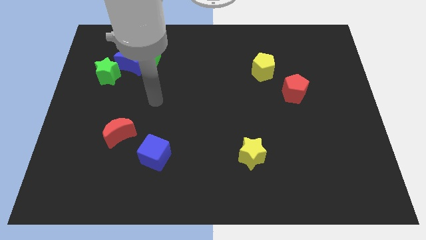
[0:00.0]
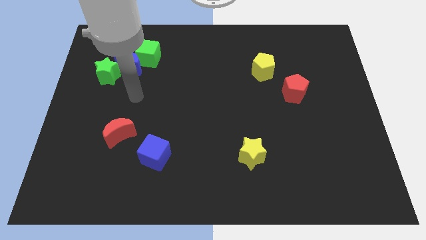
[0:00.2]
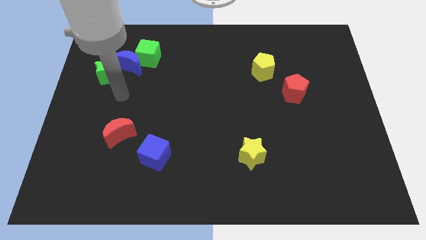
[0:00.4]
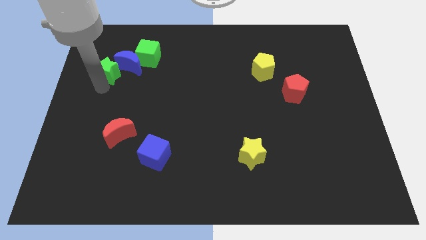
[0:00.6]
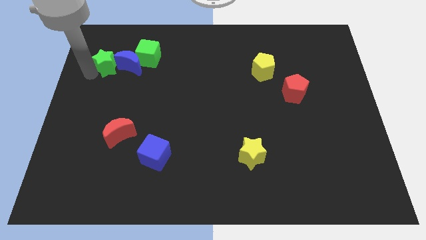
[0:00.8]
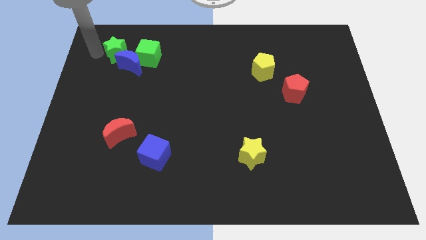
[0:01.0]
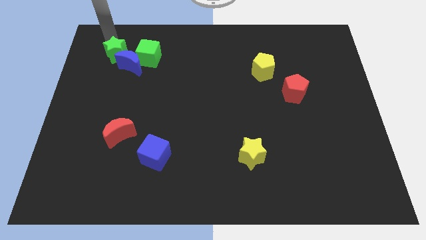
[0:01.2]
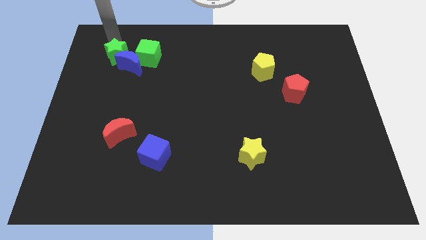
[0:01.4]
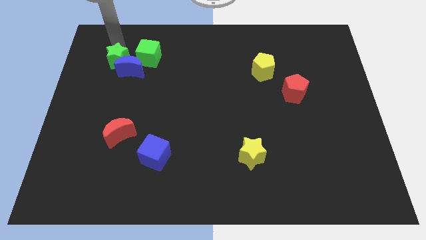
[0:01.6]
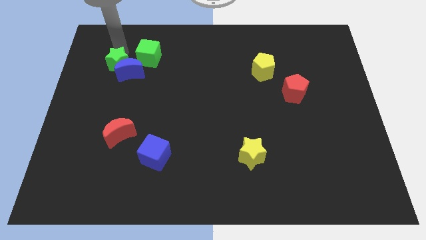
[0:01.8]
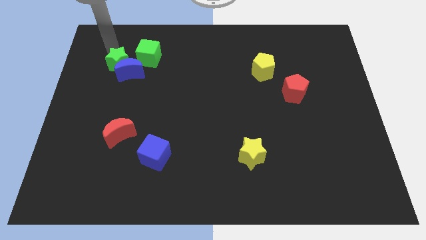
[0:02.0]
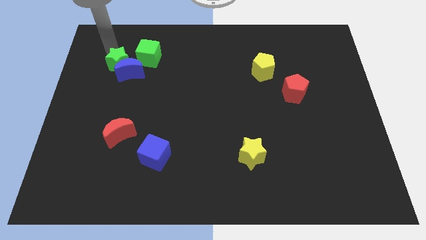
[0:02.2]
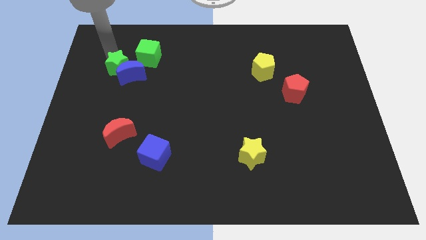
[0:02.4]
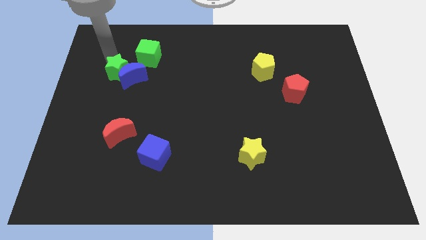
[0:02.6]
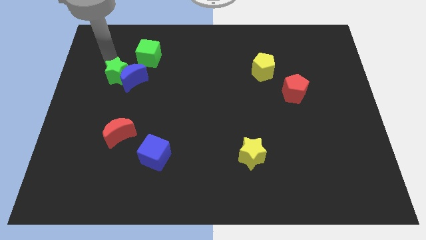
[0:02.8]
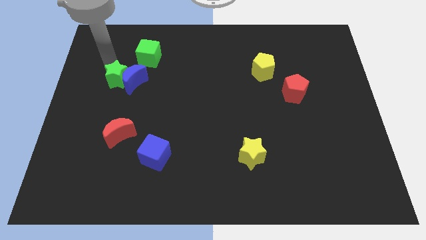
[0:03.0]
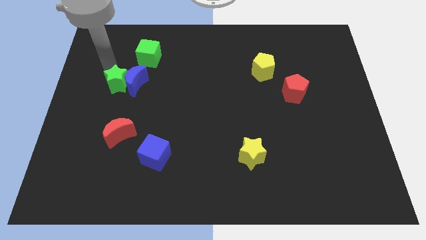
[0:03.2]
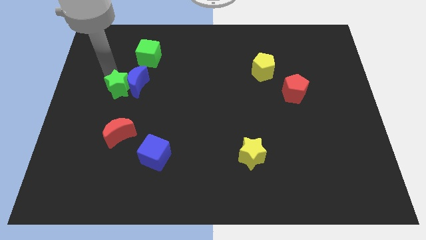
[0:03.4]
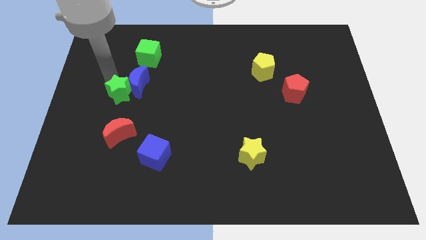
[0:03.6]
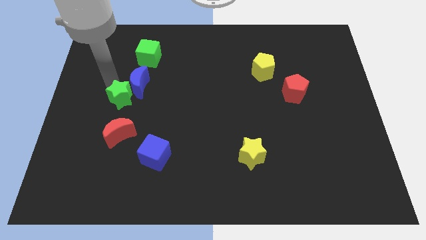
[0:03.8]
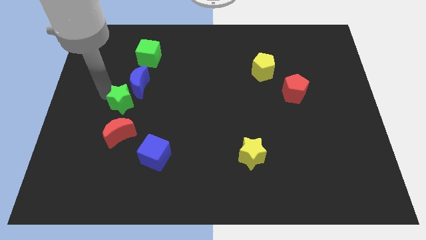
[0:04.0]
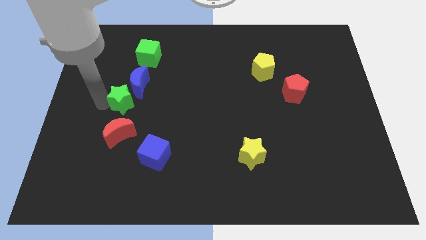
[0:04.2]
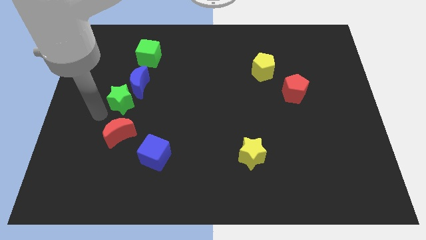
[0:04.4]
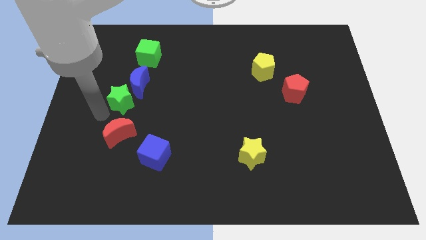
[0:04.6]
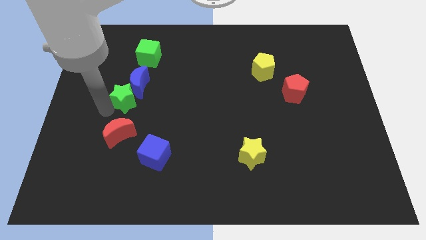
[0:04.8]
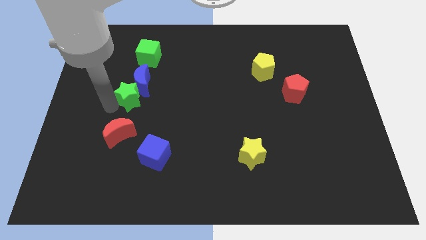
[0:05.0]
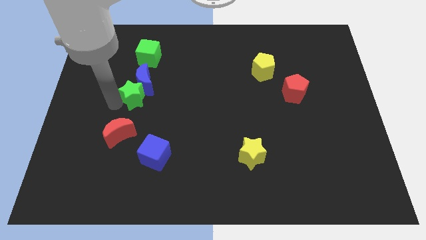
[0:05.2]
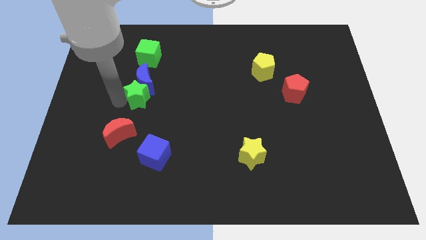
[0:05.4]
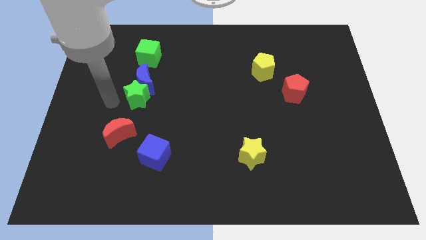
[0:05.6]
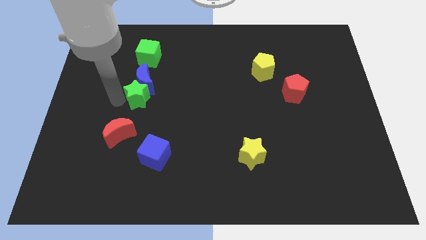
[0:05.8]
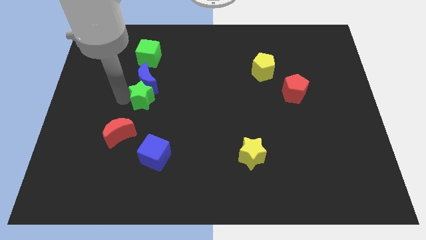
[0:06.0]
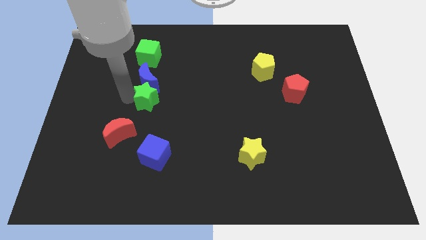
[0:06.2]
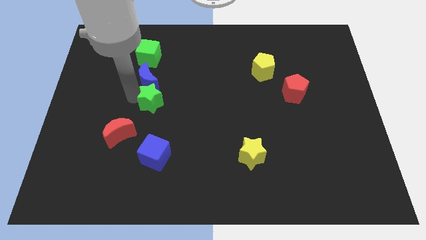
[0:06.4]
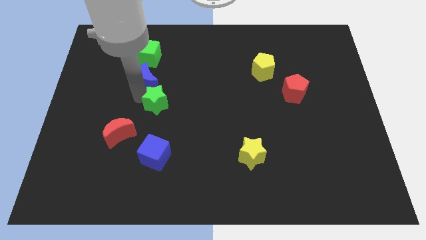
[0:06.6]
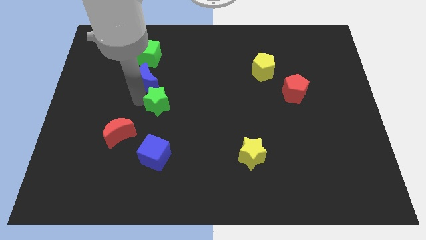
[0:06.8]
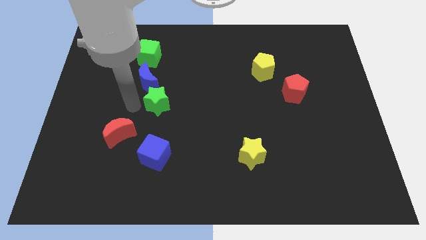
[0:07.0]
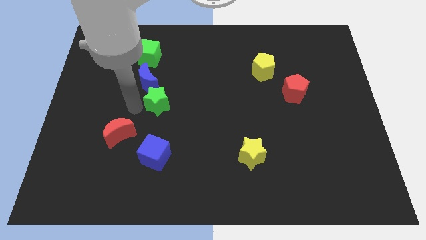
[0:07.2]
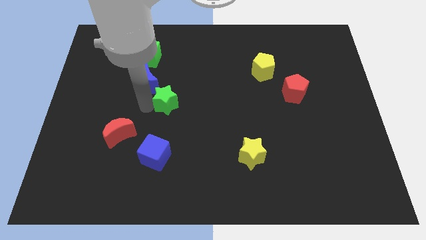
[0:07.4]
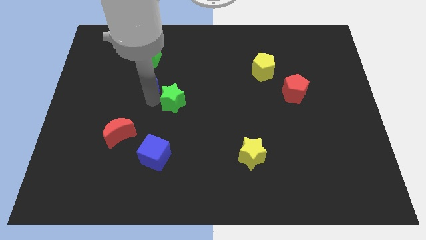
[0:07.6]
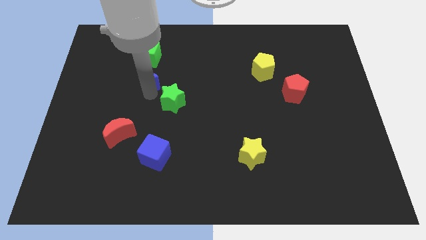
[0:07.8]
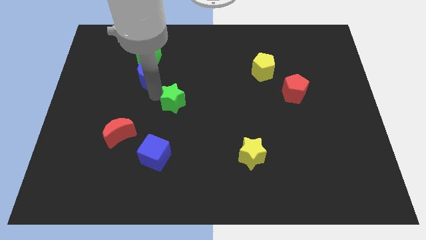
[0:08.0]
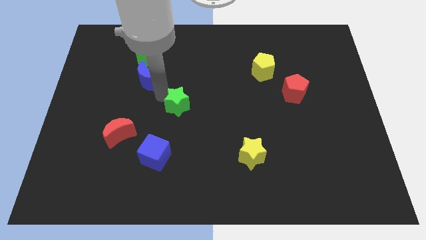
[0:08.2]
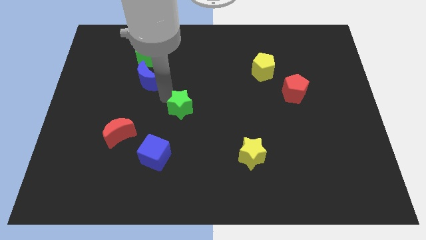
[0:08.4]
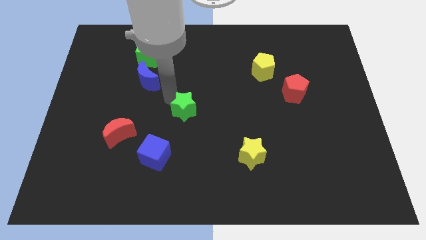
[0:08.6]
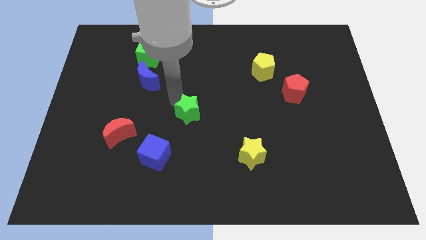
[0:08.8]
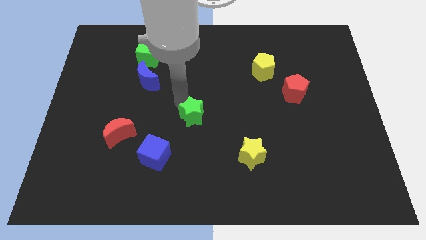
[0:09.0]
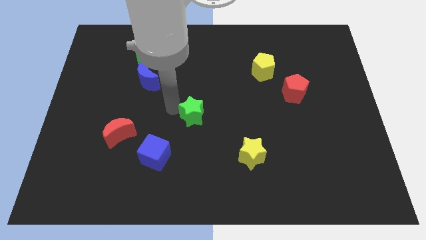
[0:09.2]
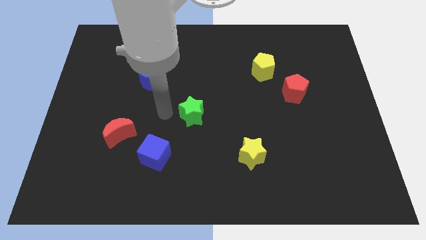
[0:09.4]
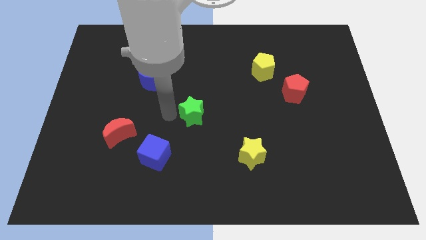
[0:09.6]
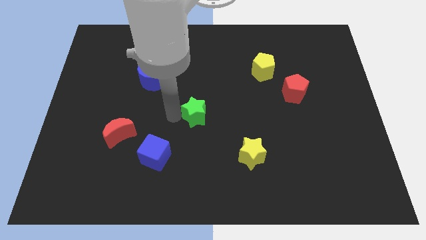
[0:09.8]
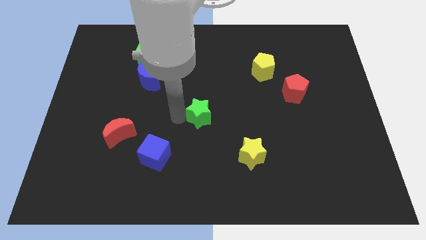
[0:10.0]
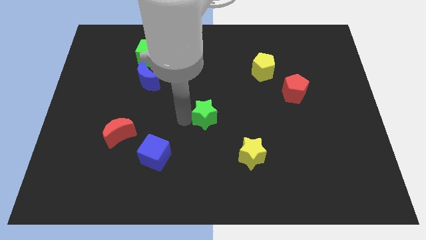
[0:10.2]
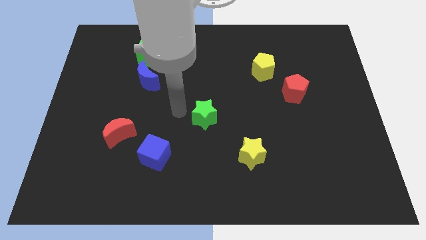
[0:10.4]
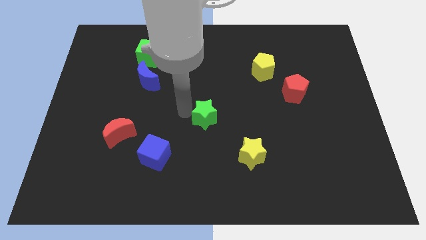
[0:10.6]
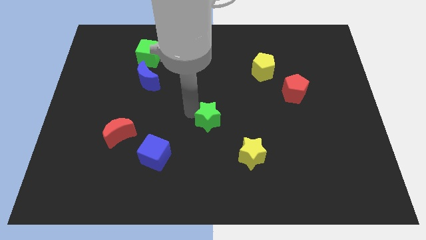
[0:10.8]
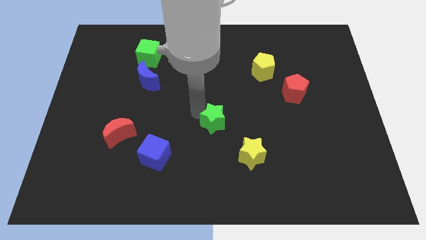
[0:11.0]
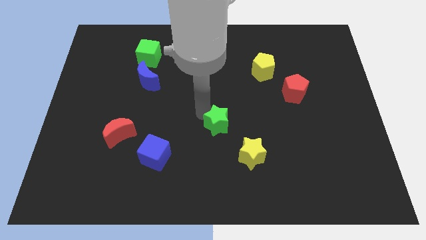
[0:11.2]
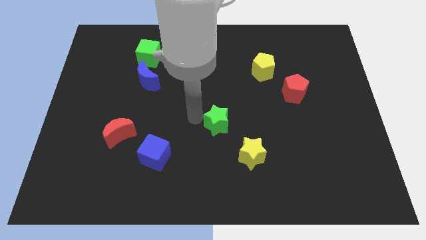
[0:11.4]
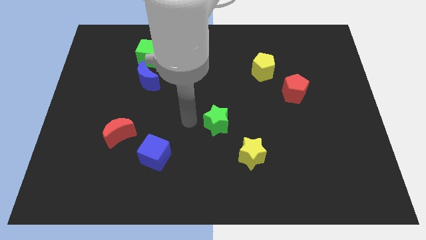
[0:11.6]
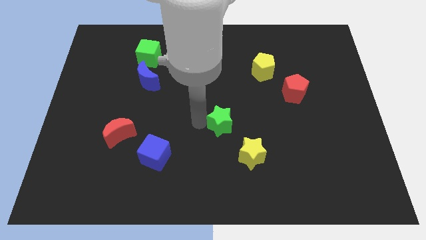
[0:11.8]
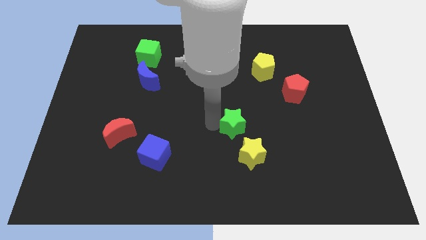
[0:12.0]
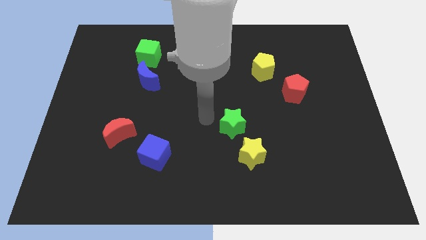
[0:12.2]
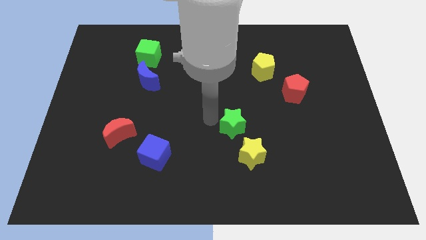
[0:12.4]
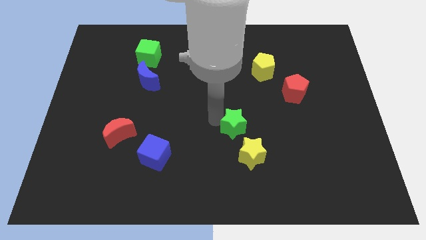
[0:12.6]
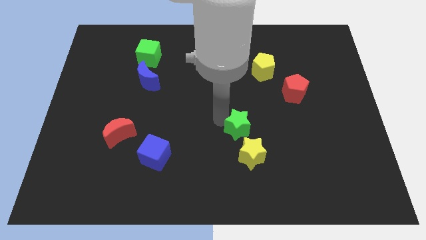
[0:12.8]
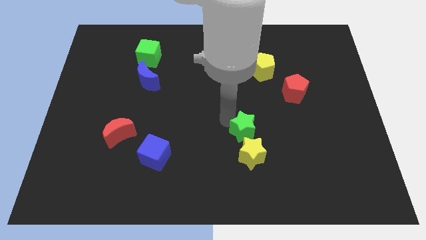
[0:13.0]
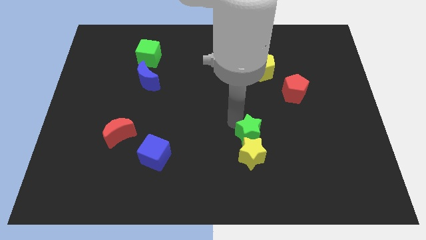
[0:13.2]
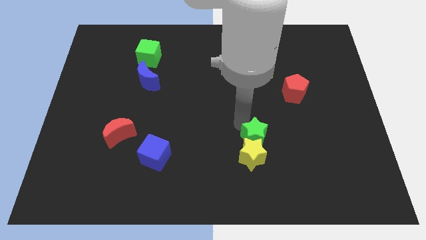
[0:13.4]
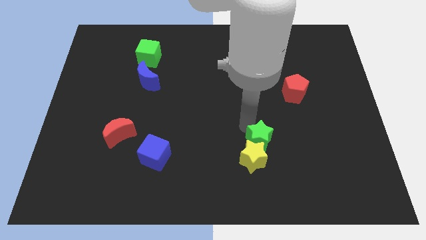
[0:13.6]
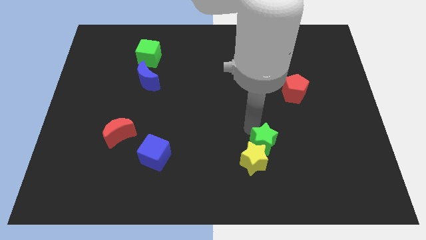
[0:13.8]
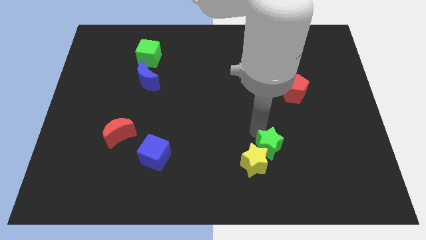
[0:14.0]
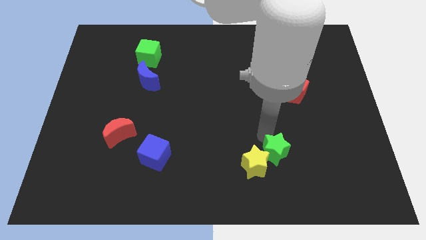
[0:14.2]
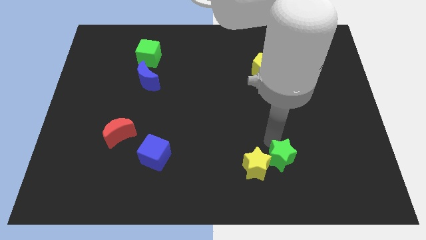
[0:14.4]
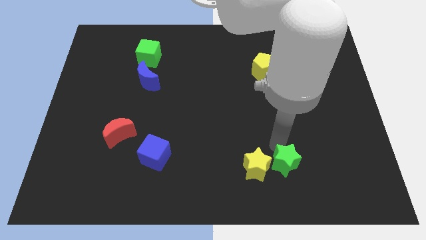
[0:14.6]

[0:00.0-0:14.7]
push the green star to the bottom right side of the yellow star

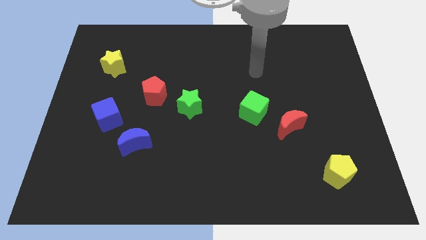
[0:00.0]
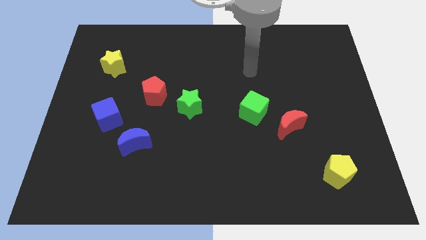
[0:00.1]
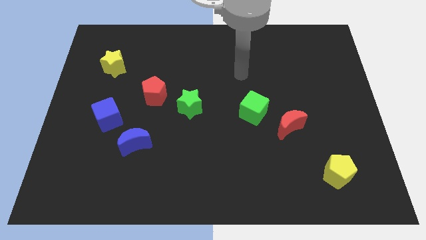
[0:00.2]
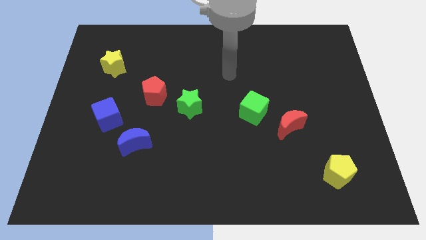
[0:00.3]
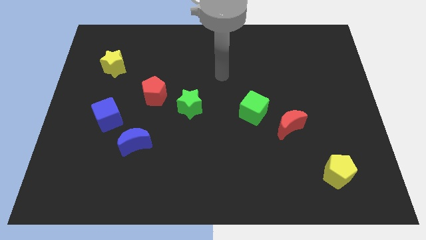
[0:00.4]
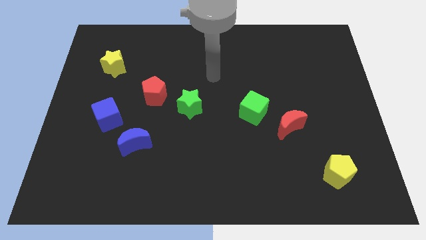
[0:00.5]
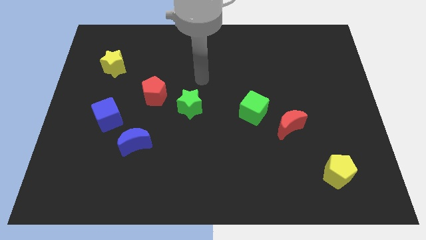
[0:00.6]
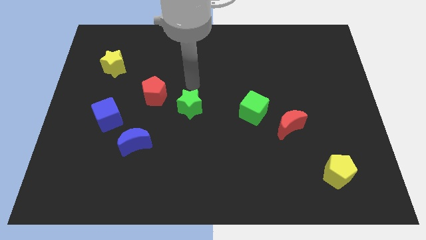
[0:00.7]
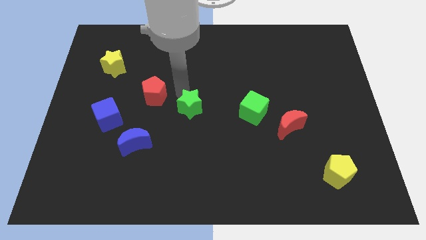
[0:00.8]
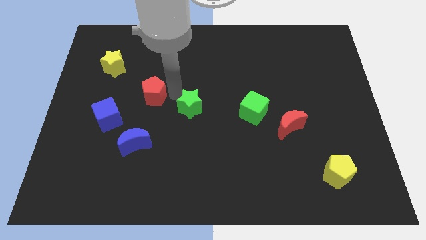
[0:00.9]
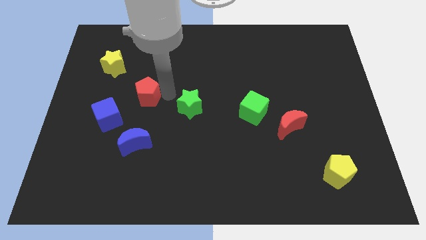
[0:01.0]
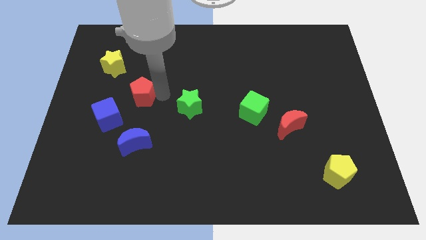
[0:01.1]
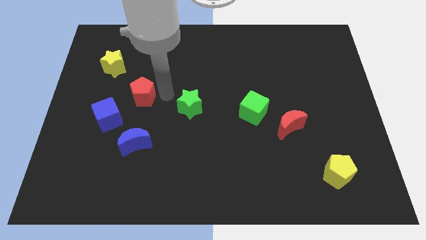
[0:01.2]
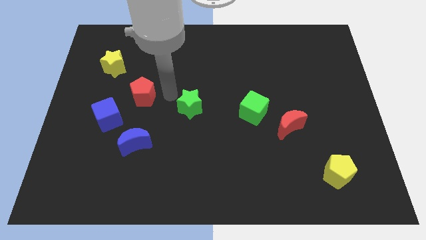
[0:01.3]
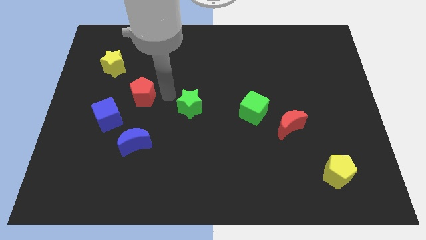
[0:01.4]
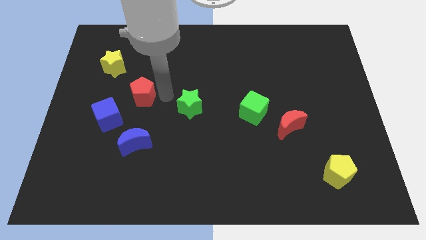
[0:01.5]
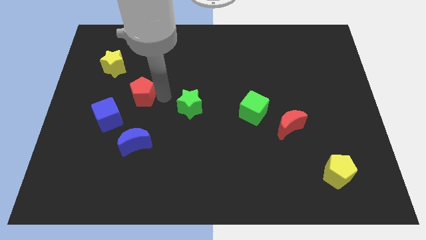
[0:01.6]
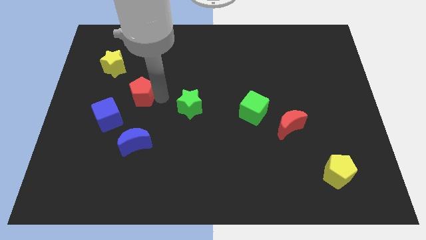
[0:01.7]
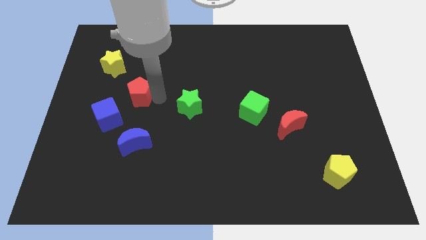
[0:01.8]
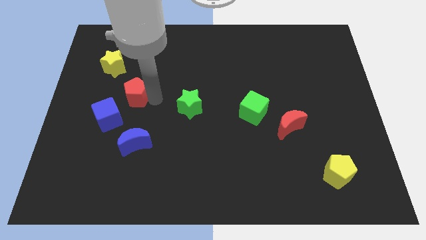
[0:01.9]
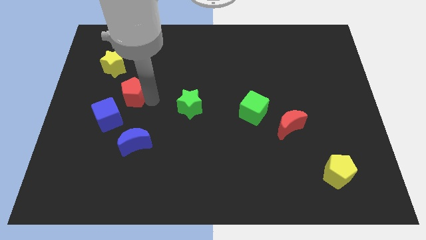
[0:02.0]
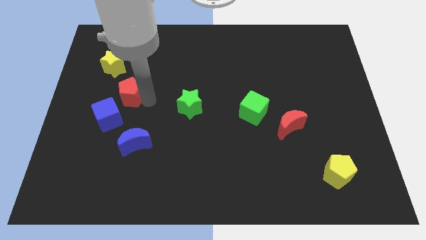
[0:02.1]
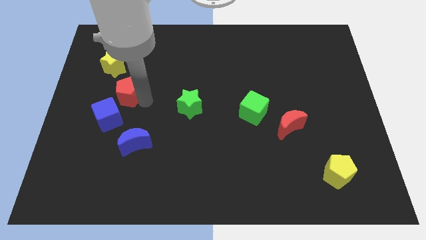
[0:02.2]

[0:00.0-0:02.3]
move the red pentagon below the yellow star
